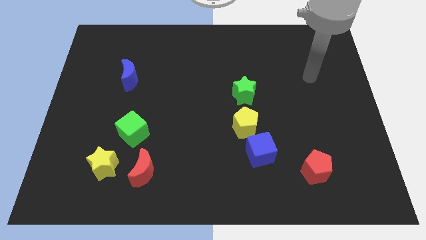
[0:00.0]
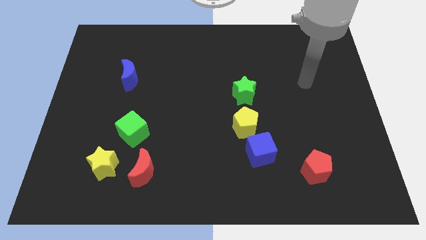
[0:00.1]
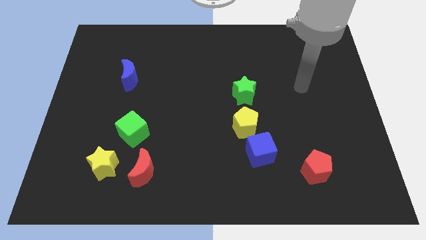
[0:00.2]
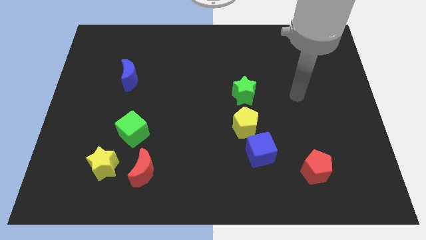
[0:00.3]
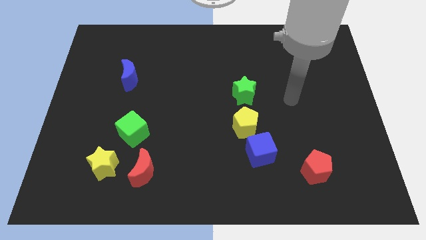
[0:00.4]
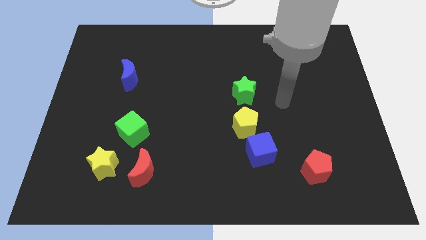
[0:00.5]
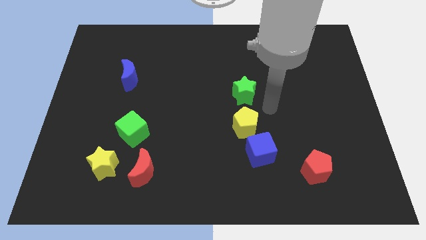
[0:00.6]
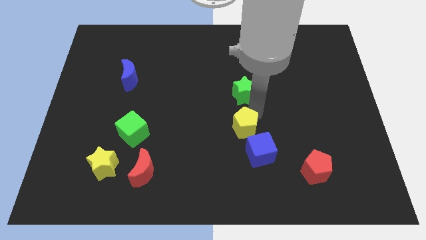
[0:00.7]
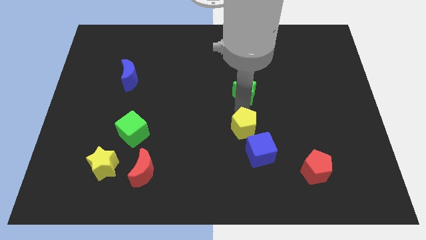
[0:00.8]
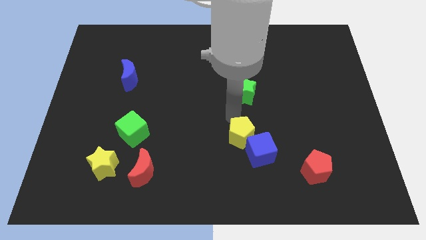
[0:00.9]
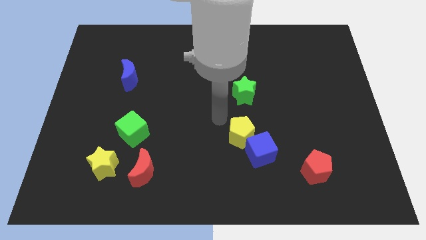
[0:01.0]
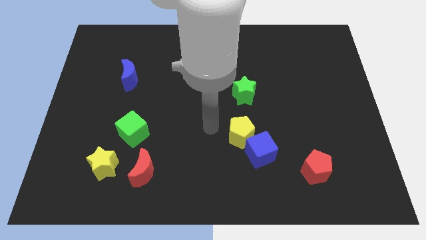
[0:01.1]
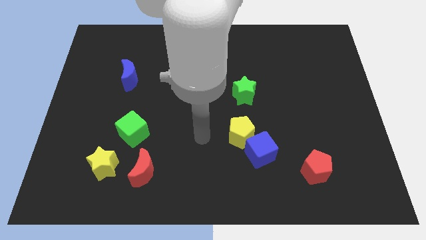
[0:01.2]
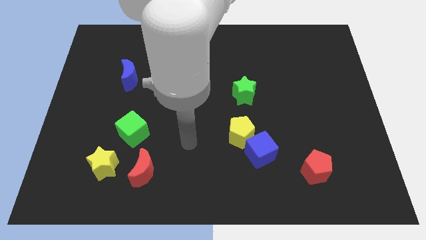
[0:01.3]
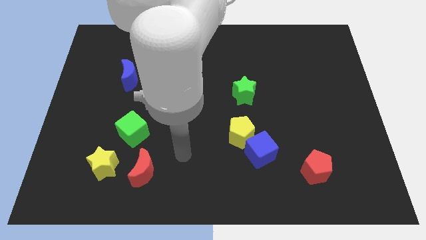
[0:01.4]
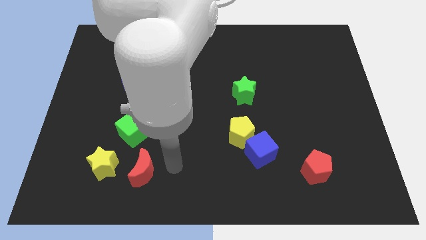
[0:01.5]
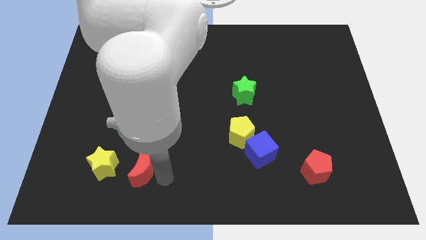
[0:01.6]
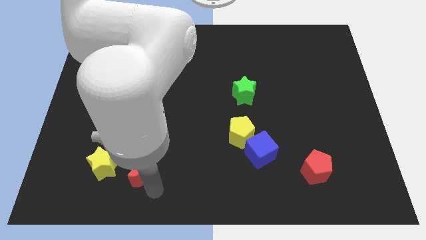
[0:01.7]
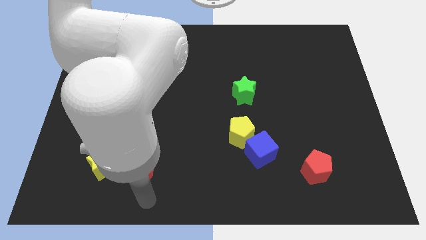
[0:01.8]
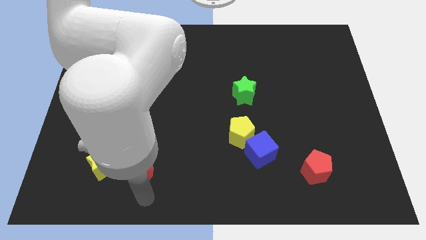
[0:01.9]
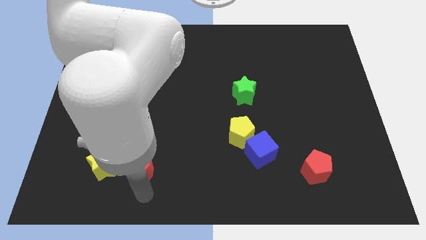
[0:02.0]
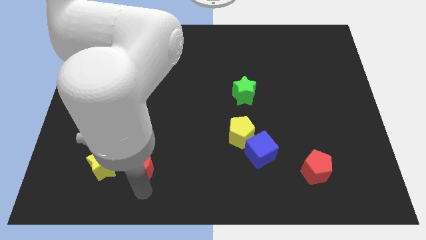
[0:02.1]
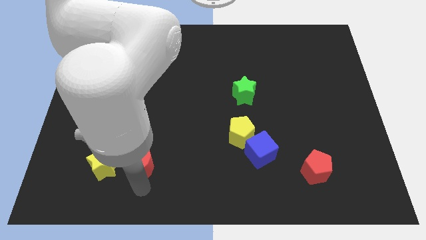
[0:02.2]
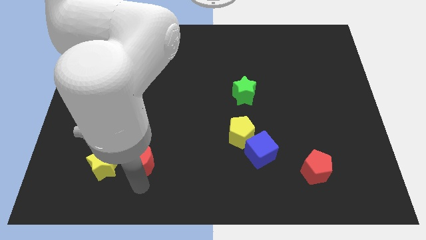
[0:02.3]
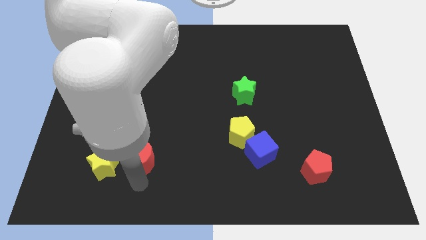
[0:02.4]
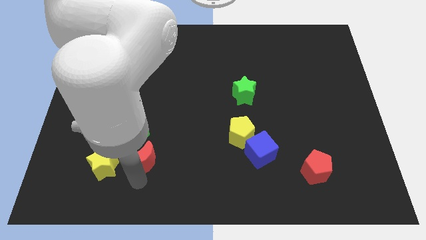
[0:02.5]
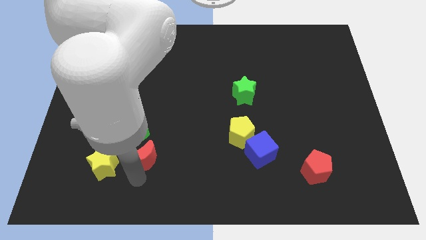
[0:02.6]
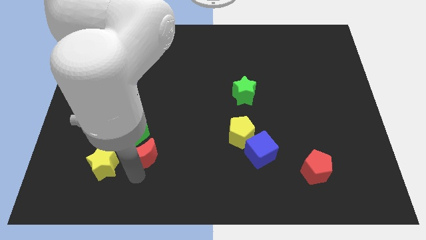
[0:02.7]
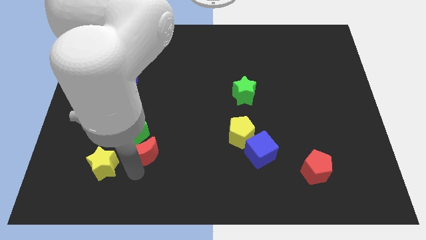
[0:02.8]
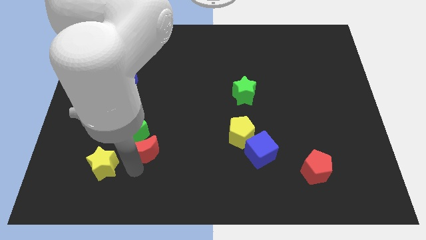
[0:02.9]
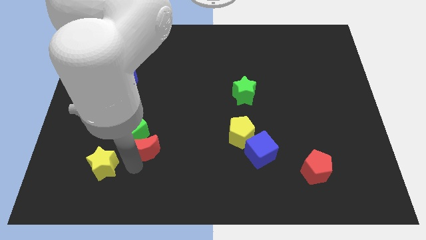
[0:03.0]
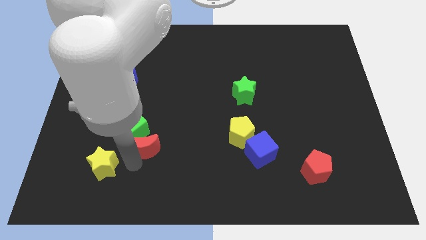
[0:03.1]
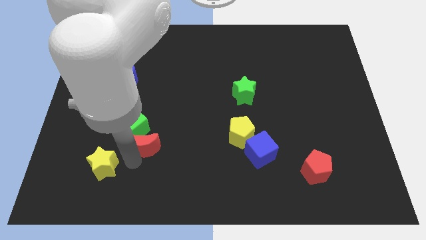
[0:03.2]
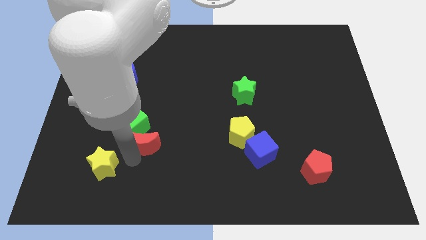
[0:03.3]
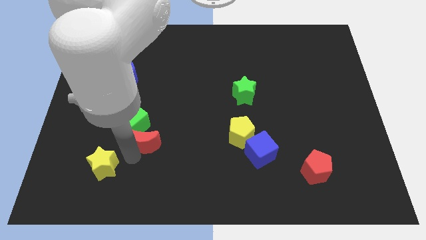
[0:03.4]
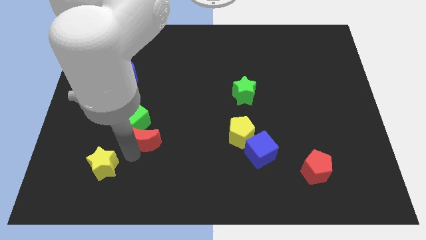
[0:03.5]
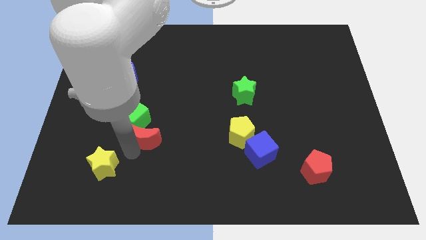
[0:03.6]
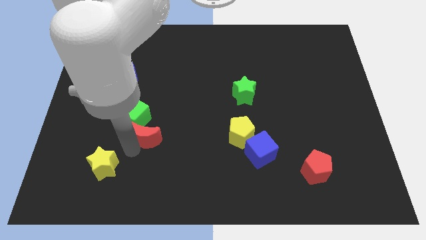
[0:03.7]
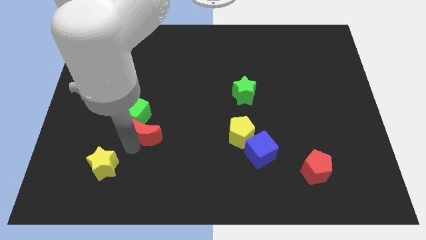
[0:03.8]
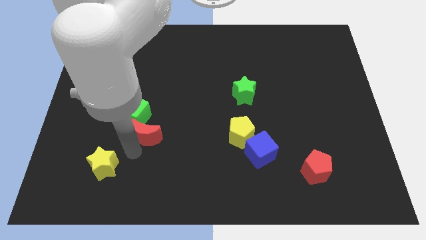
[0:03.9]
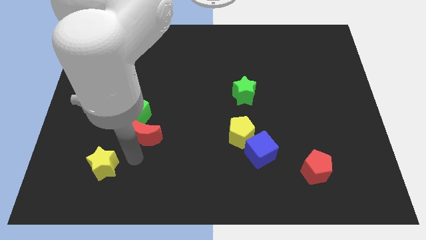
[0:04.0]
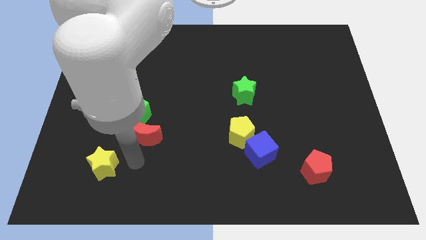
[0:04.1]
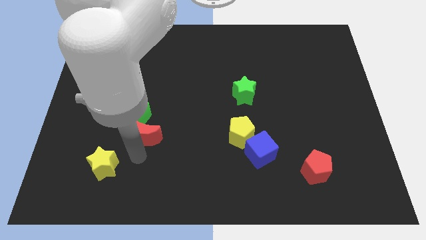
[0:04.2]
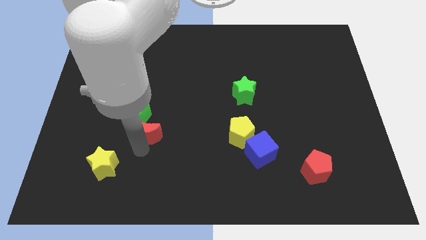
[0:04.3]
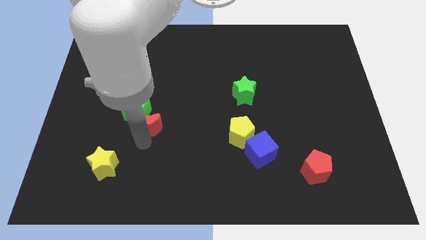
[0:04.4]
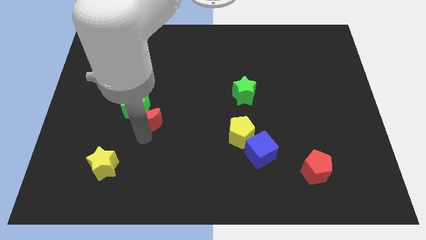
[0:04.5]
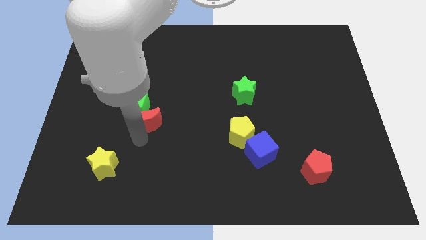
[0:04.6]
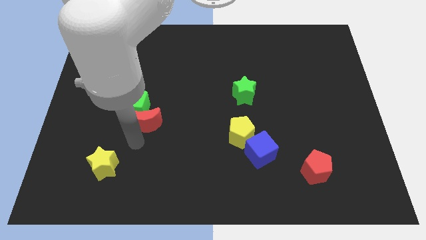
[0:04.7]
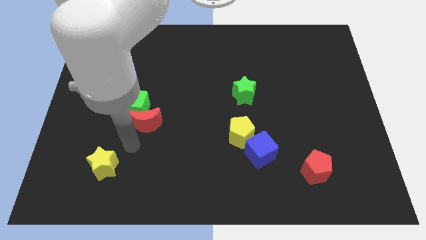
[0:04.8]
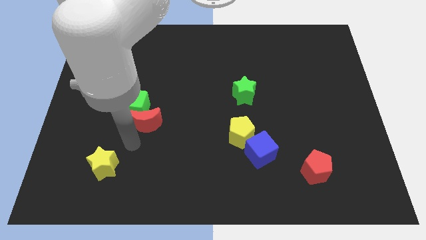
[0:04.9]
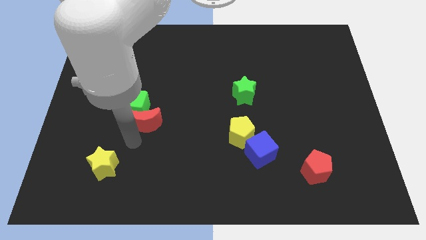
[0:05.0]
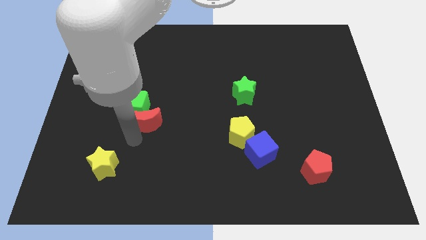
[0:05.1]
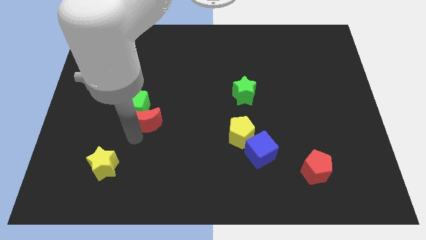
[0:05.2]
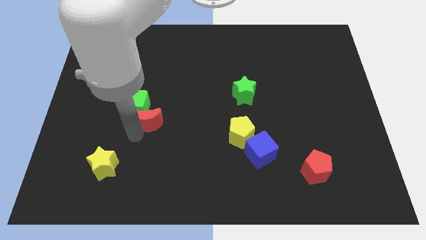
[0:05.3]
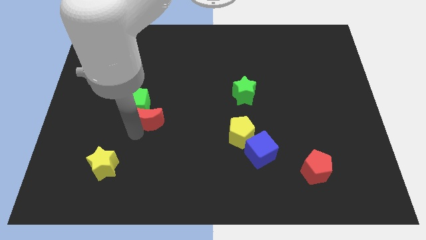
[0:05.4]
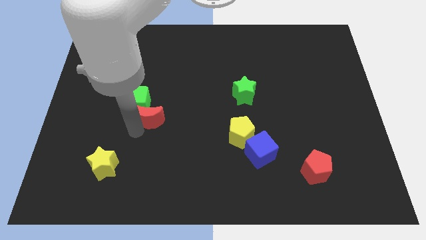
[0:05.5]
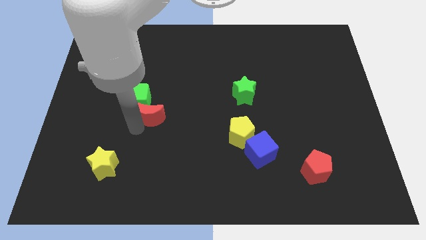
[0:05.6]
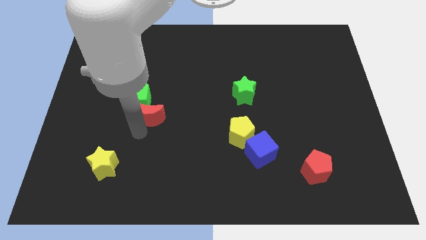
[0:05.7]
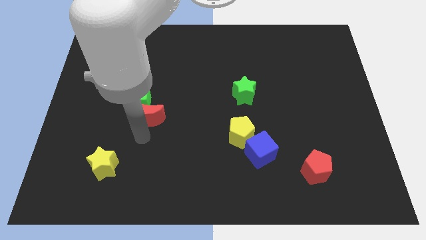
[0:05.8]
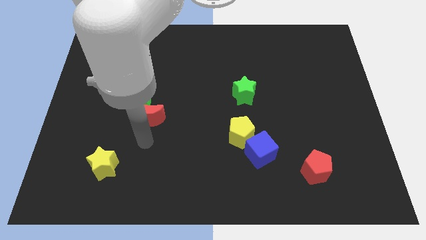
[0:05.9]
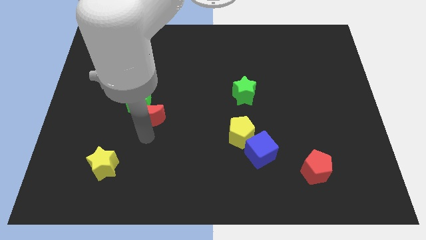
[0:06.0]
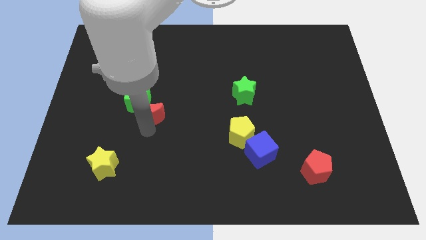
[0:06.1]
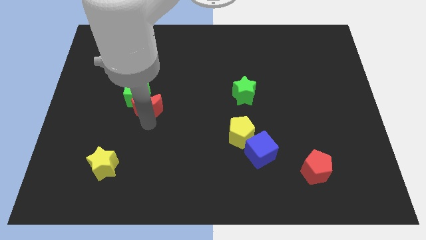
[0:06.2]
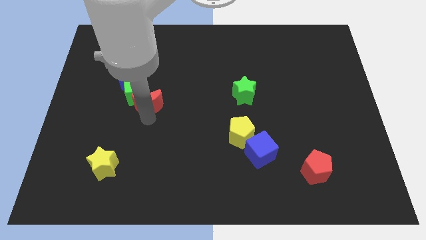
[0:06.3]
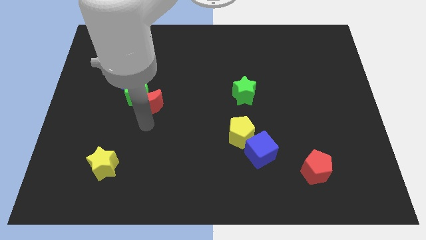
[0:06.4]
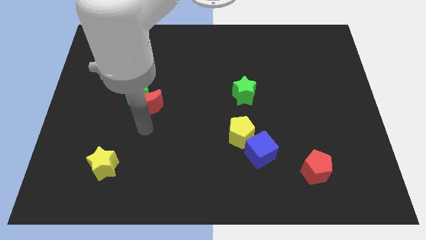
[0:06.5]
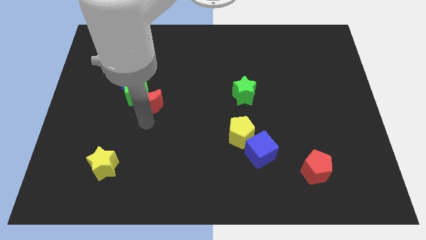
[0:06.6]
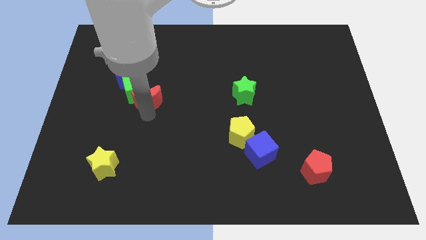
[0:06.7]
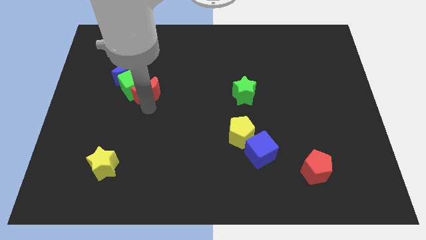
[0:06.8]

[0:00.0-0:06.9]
move the red moon up

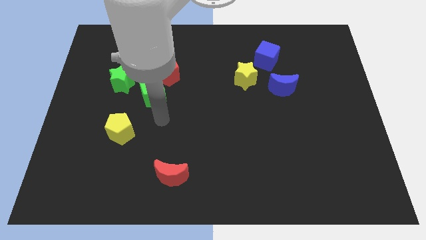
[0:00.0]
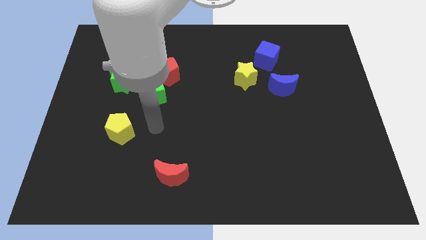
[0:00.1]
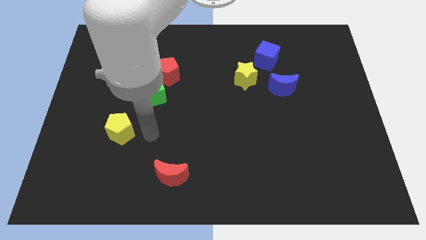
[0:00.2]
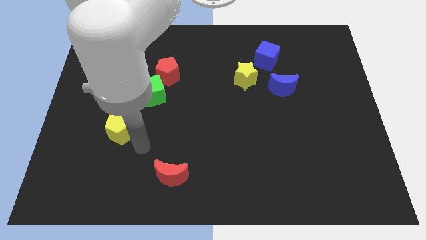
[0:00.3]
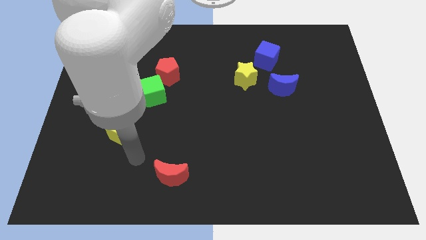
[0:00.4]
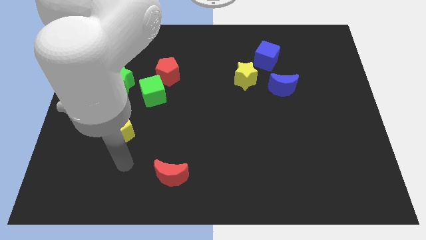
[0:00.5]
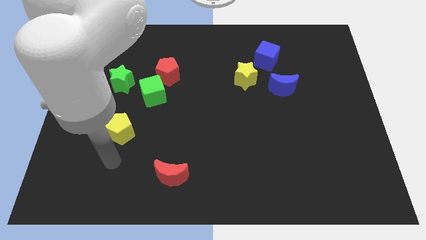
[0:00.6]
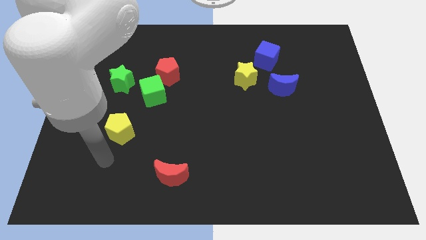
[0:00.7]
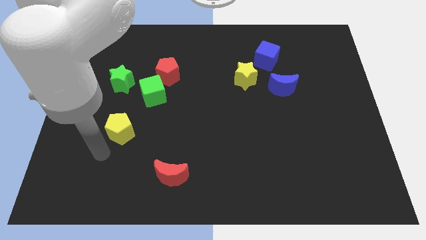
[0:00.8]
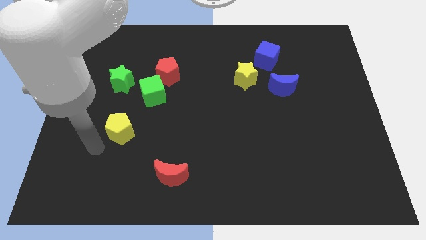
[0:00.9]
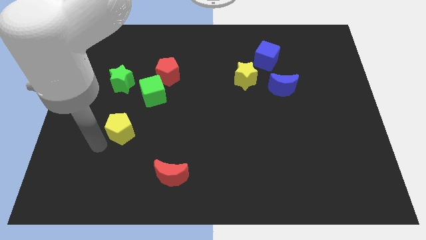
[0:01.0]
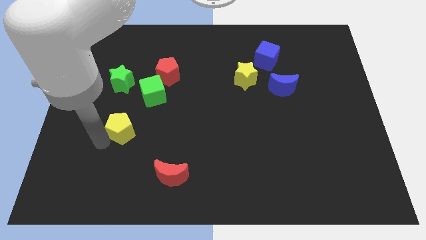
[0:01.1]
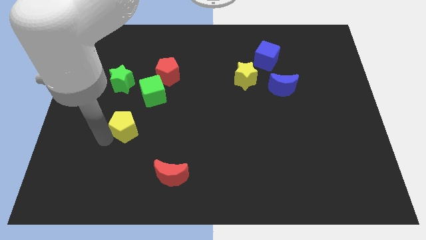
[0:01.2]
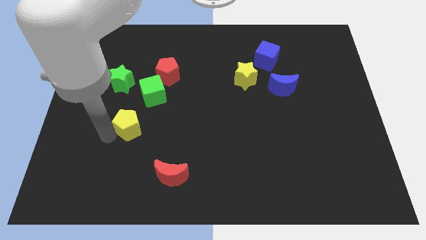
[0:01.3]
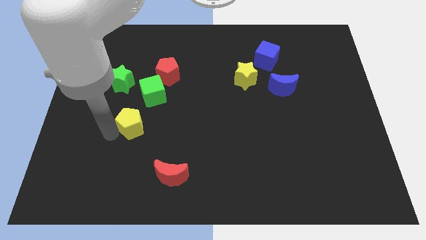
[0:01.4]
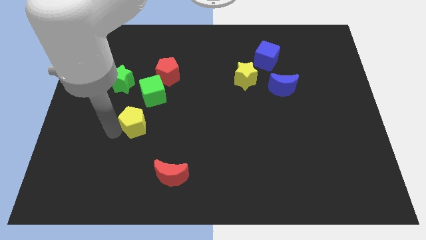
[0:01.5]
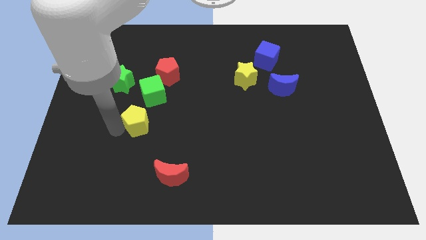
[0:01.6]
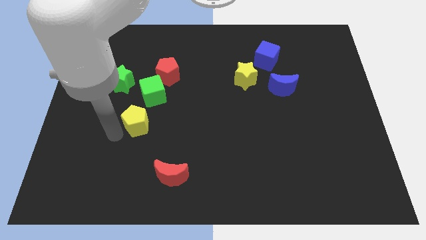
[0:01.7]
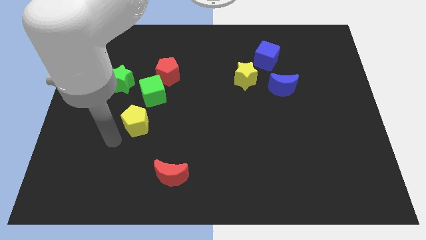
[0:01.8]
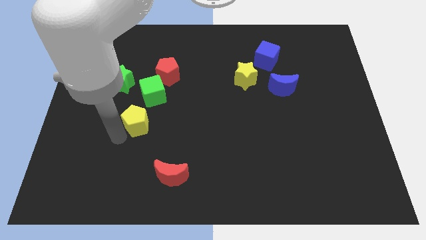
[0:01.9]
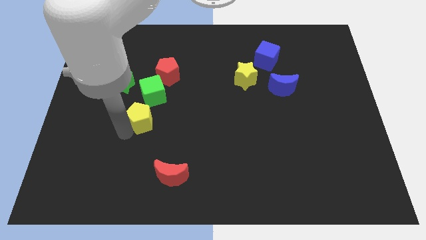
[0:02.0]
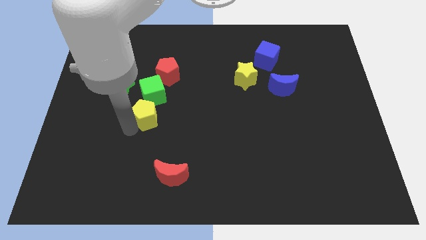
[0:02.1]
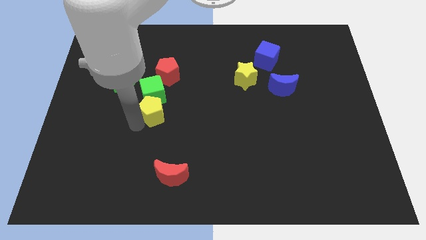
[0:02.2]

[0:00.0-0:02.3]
move the yellow pentagon diagonally upwards and right a little
